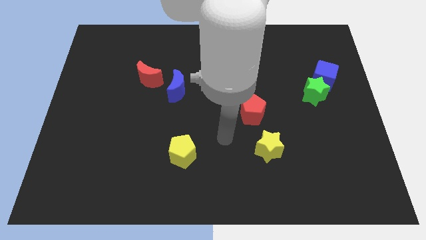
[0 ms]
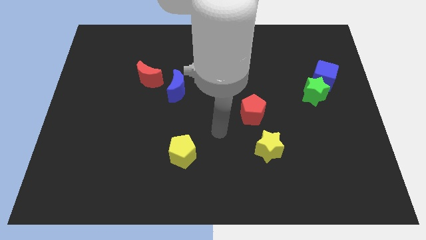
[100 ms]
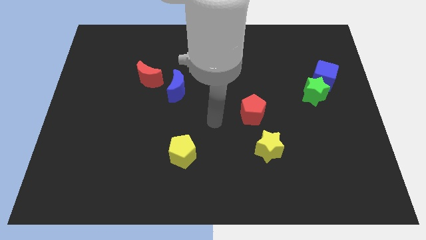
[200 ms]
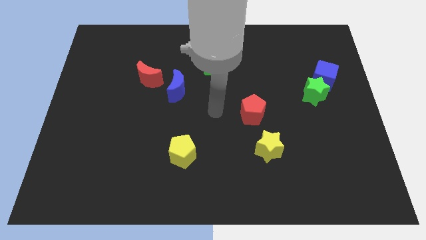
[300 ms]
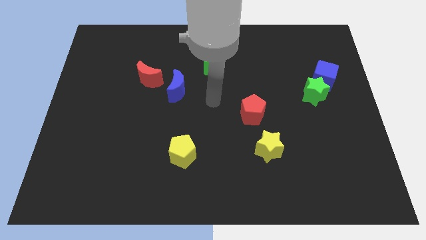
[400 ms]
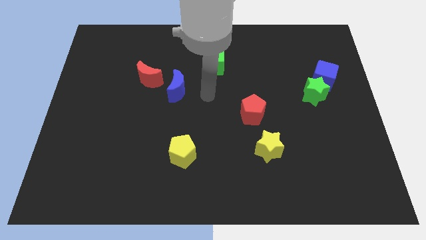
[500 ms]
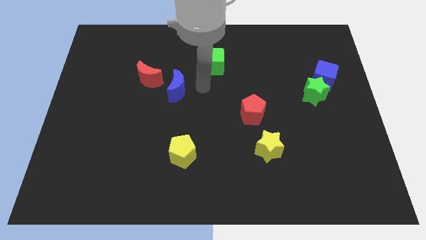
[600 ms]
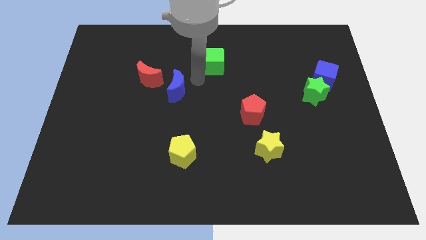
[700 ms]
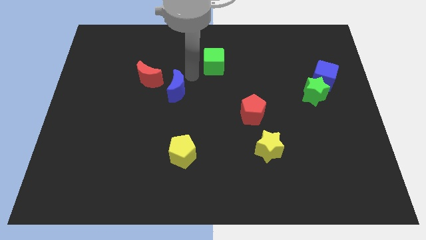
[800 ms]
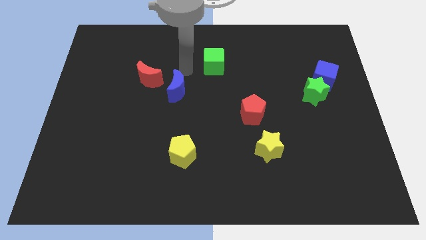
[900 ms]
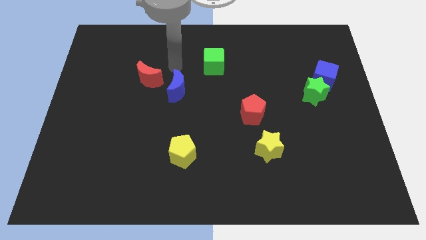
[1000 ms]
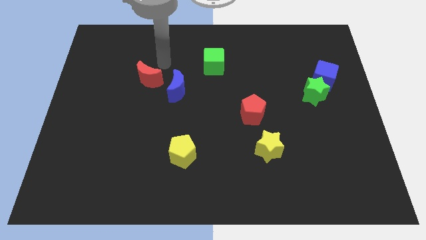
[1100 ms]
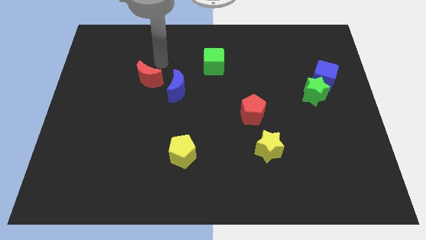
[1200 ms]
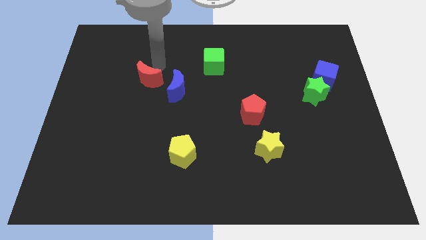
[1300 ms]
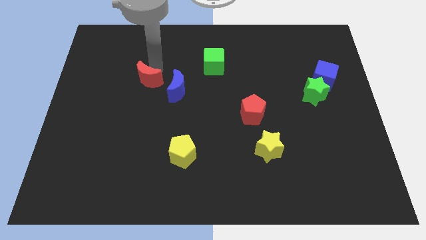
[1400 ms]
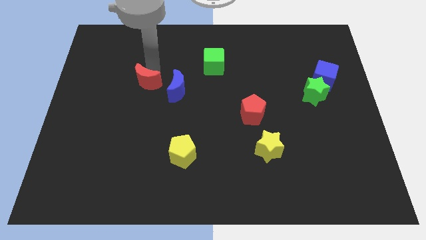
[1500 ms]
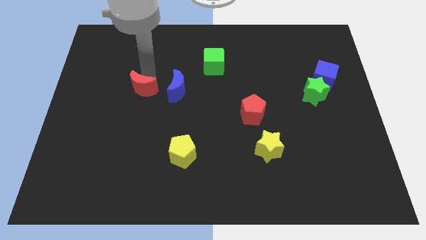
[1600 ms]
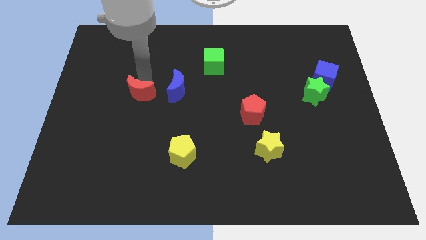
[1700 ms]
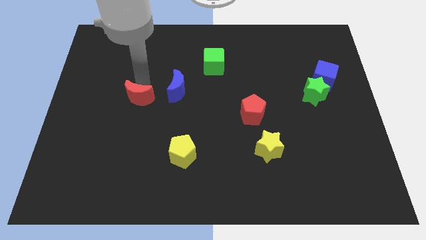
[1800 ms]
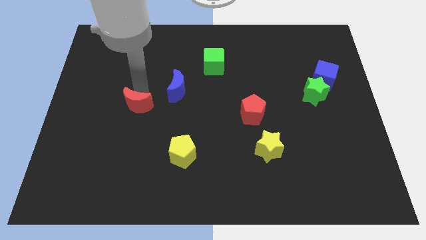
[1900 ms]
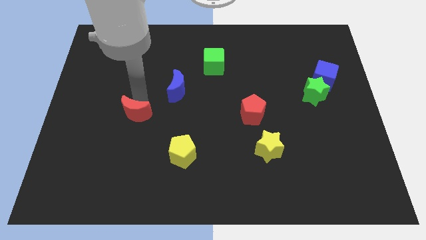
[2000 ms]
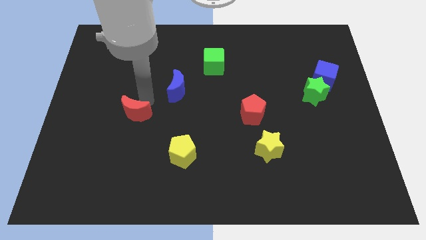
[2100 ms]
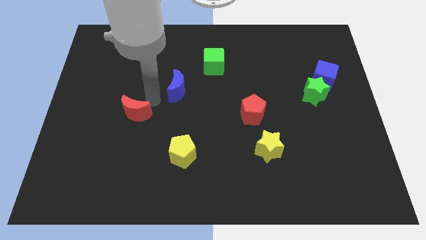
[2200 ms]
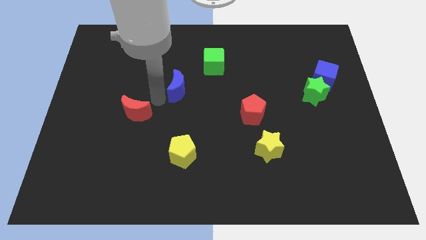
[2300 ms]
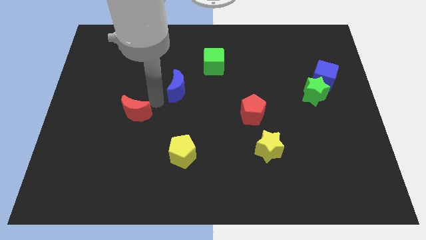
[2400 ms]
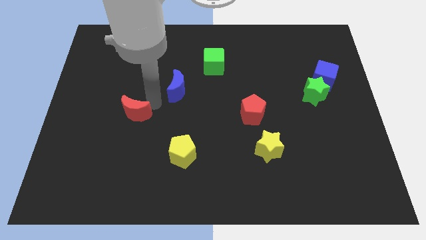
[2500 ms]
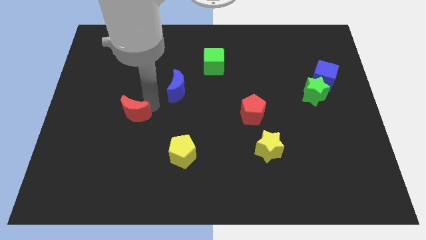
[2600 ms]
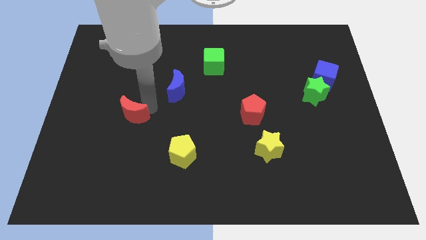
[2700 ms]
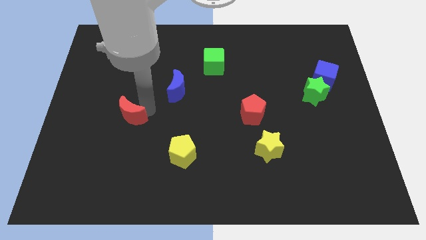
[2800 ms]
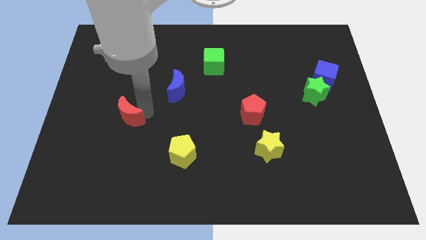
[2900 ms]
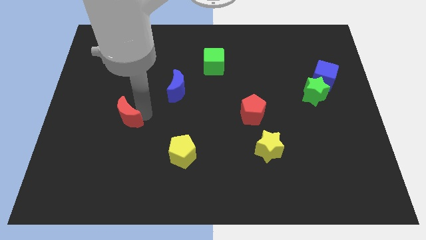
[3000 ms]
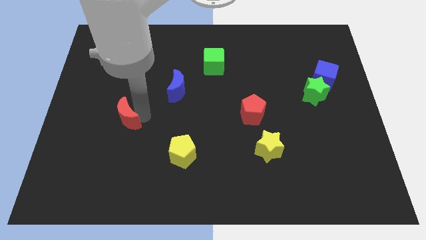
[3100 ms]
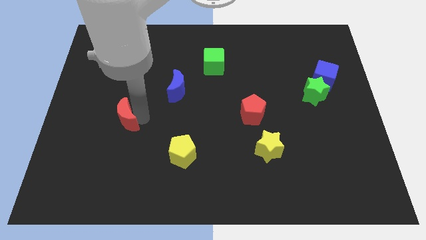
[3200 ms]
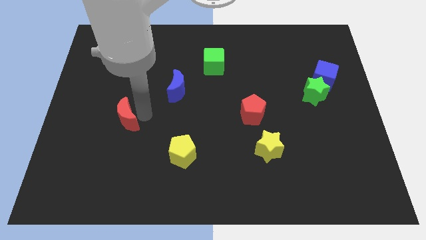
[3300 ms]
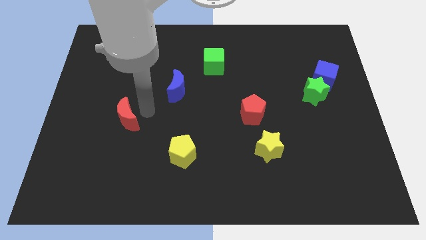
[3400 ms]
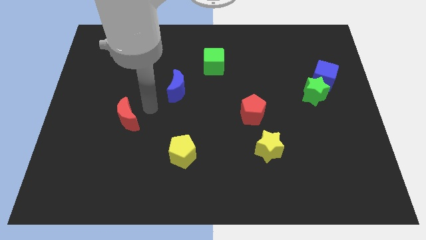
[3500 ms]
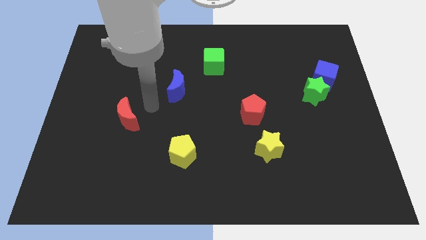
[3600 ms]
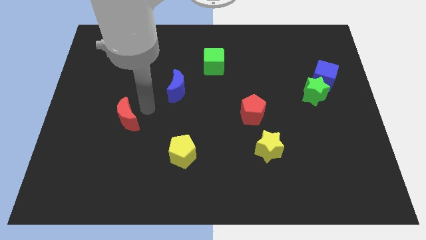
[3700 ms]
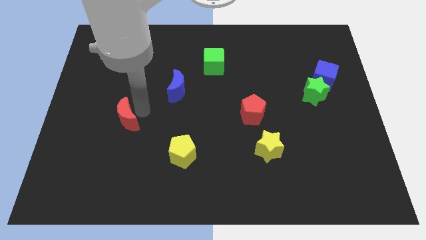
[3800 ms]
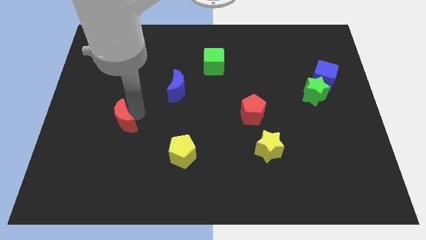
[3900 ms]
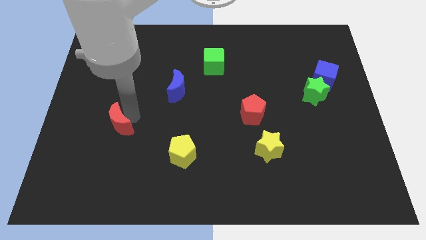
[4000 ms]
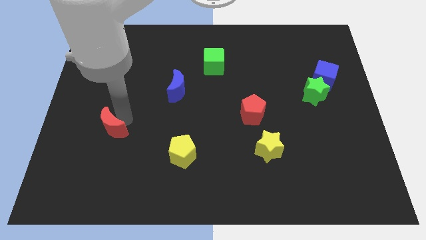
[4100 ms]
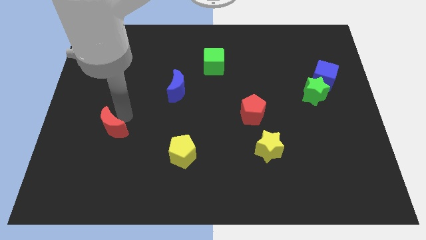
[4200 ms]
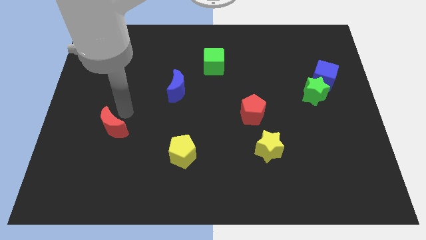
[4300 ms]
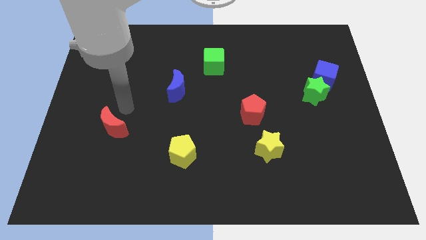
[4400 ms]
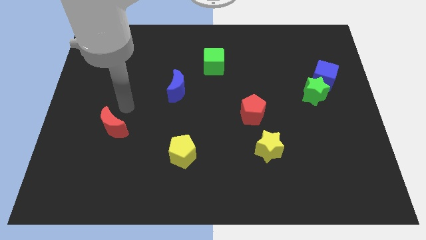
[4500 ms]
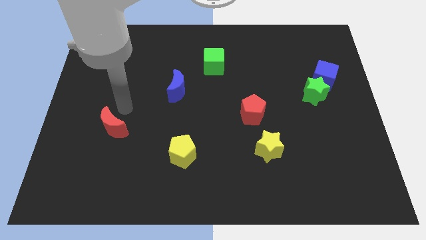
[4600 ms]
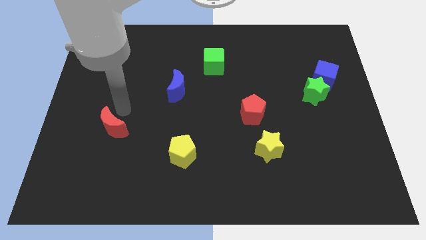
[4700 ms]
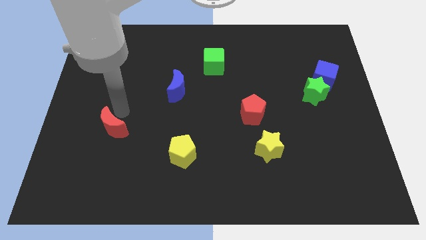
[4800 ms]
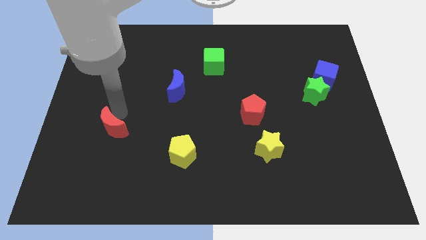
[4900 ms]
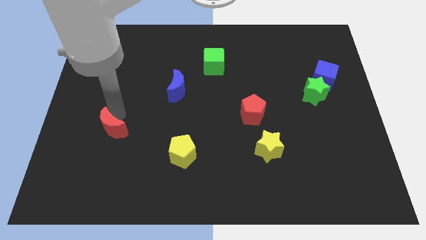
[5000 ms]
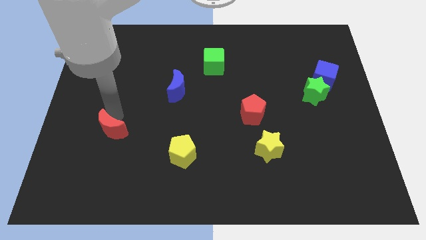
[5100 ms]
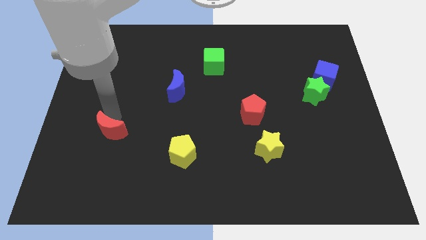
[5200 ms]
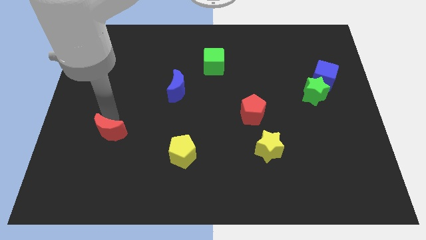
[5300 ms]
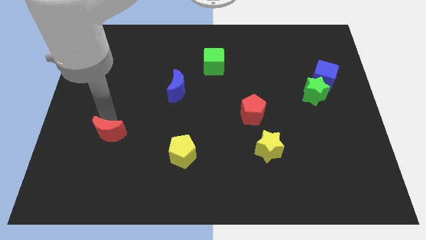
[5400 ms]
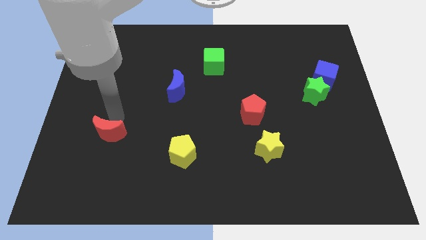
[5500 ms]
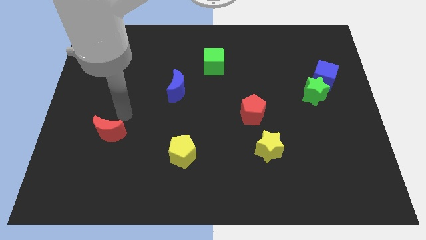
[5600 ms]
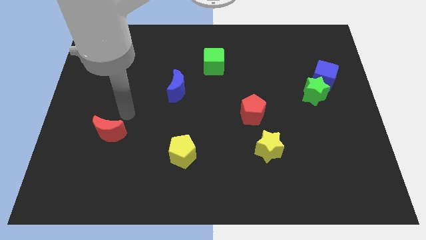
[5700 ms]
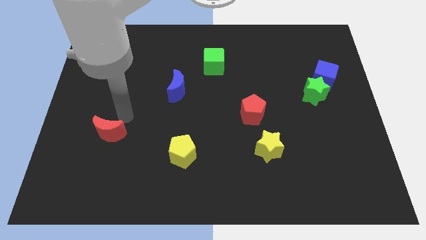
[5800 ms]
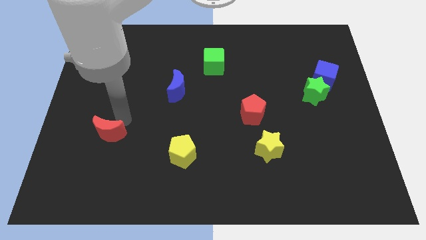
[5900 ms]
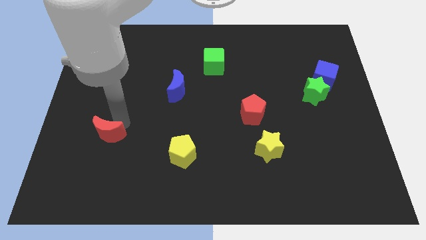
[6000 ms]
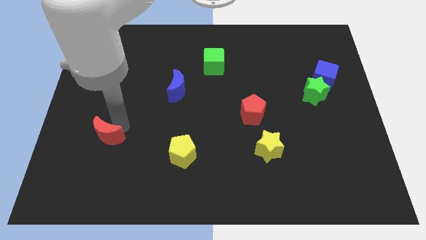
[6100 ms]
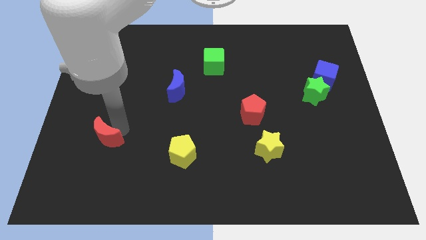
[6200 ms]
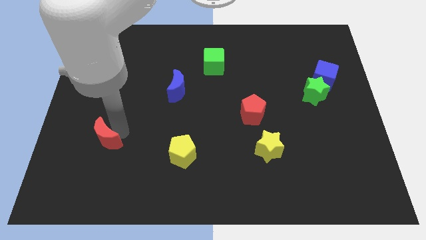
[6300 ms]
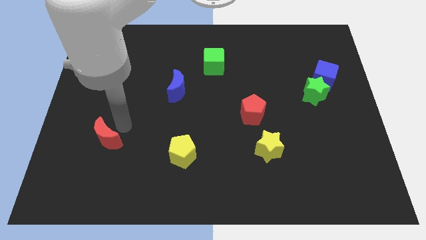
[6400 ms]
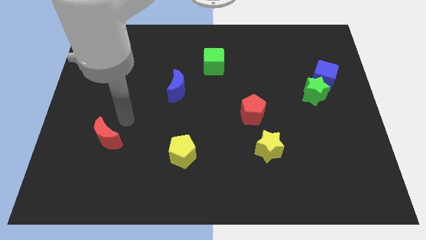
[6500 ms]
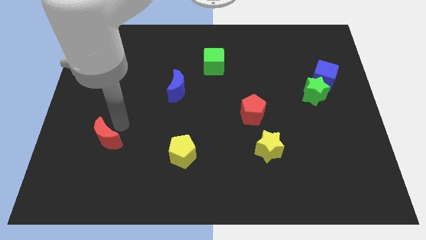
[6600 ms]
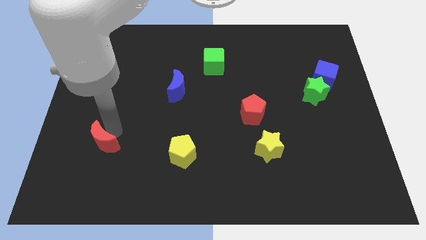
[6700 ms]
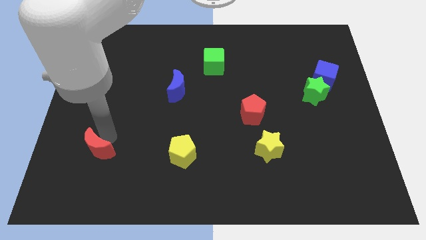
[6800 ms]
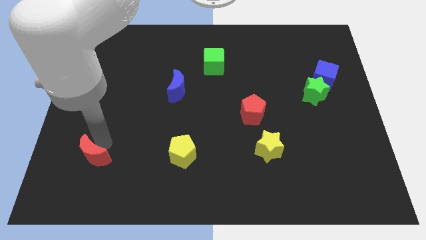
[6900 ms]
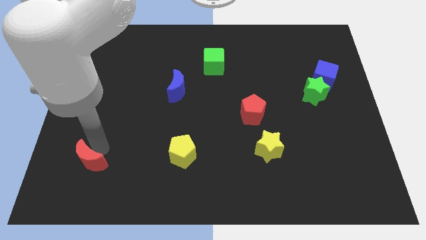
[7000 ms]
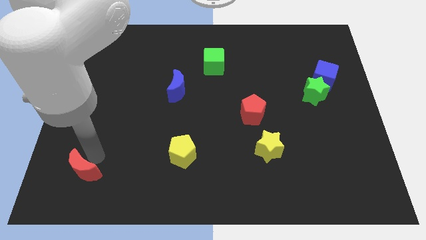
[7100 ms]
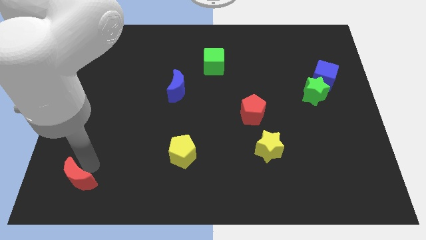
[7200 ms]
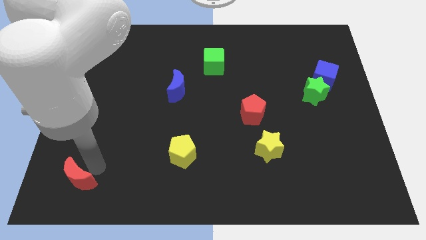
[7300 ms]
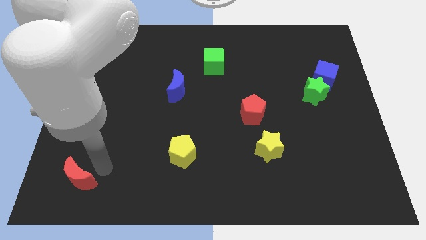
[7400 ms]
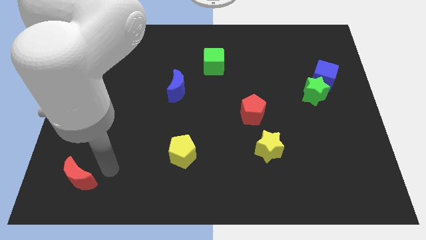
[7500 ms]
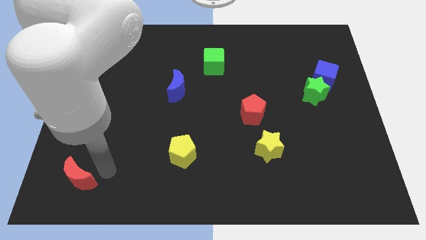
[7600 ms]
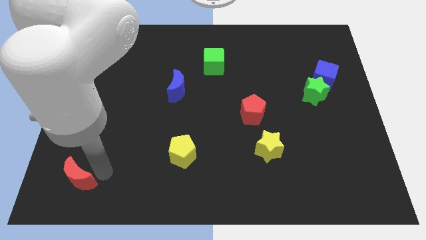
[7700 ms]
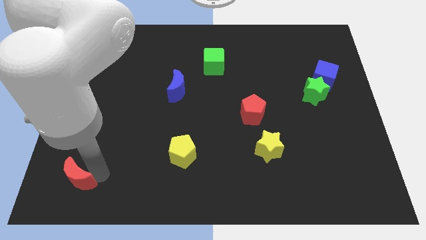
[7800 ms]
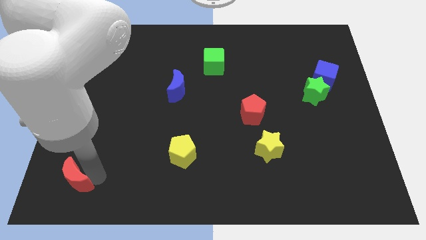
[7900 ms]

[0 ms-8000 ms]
push the red moon to the bottom left
